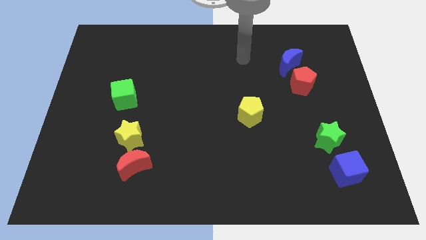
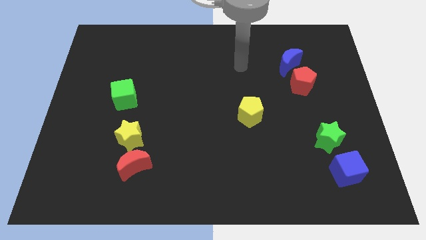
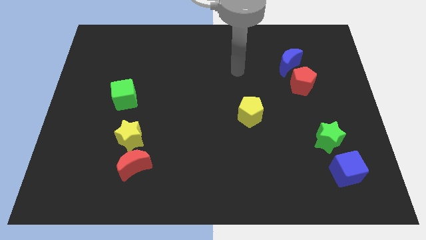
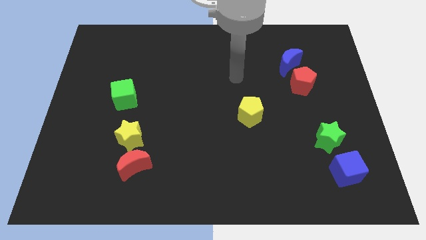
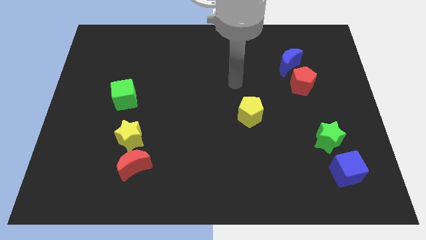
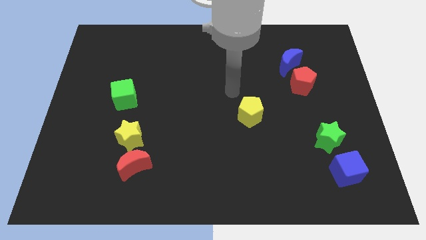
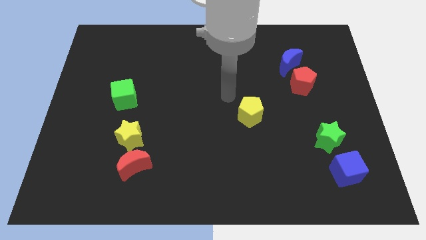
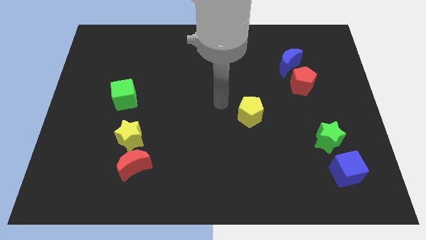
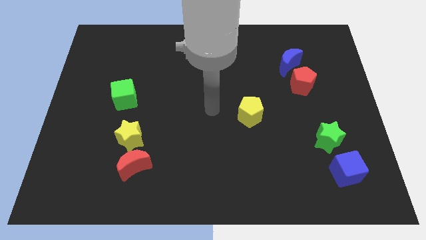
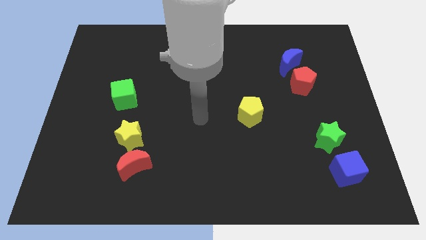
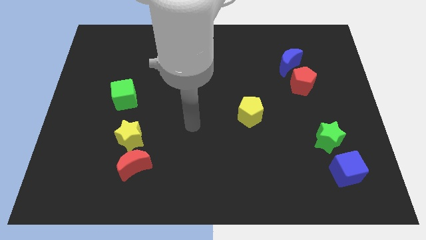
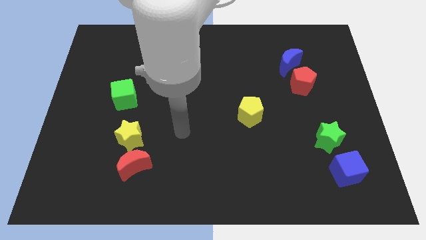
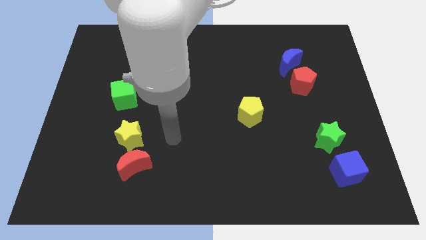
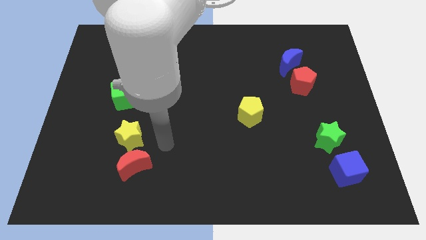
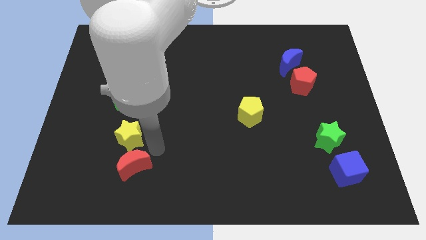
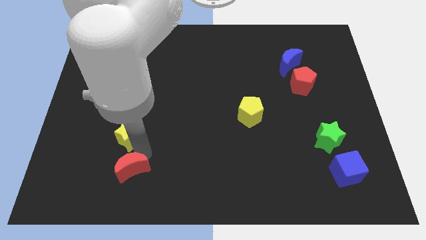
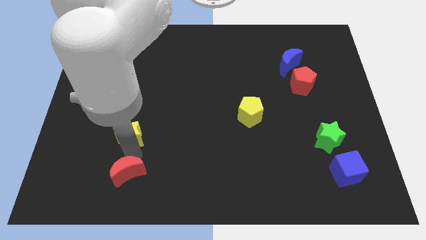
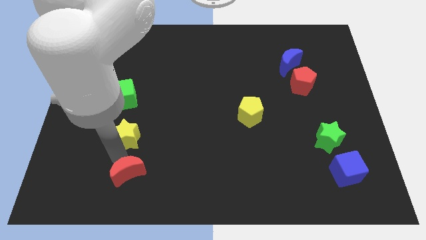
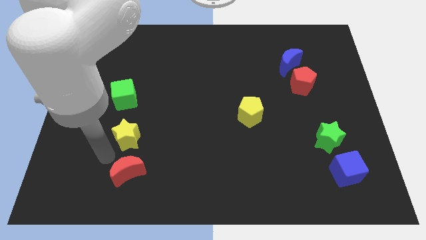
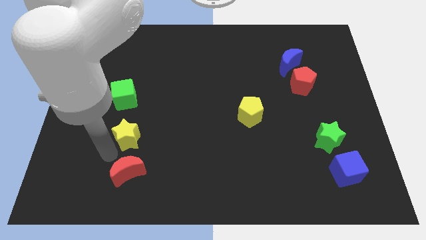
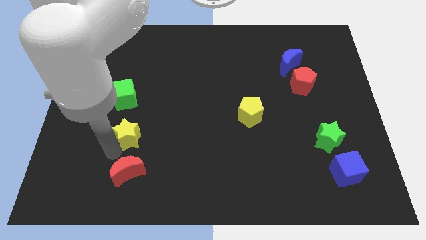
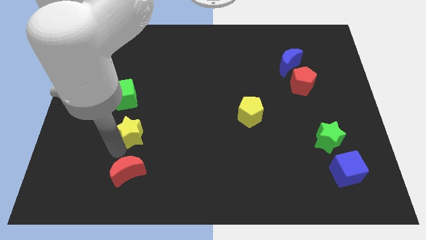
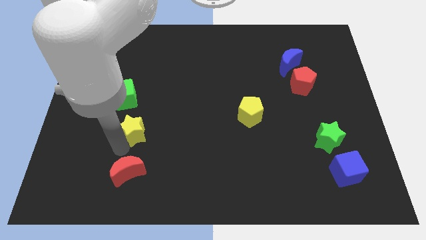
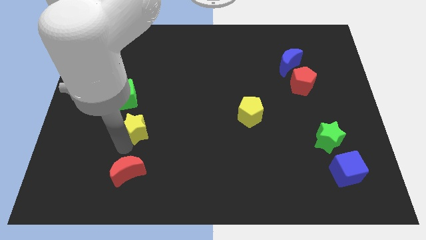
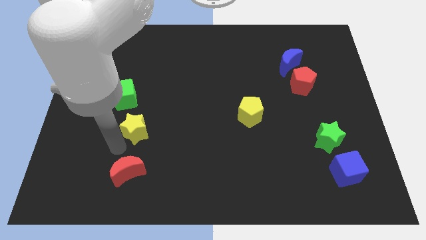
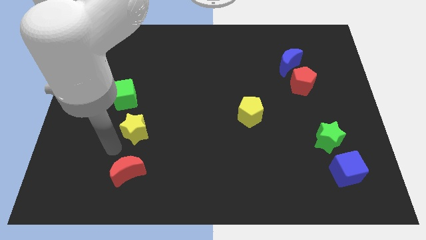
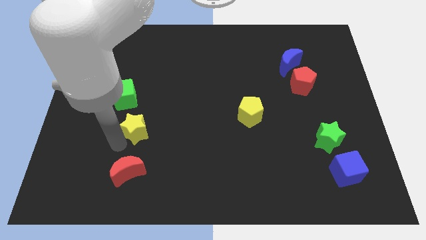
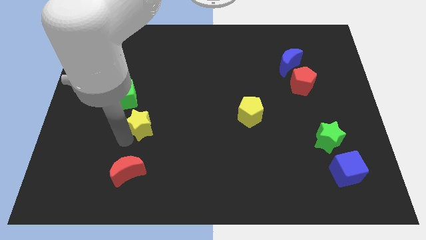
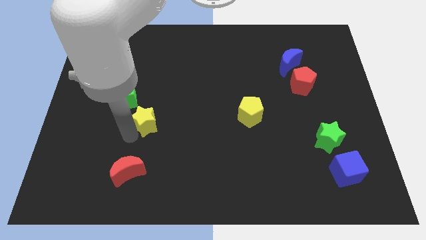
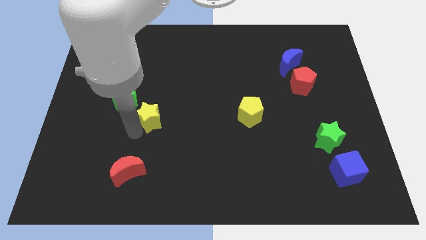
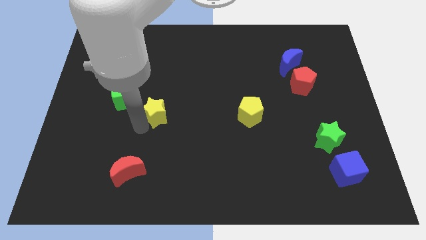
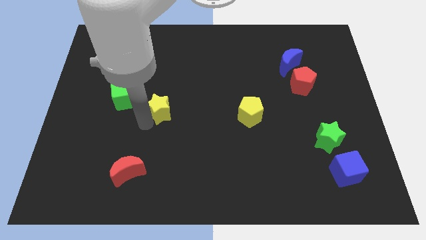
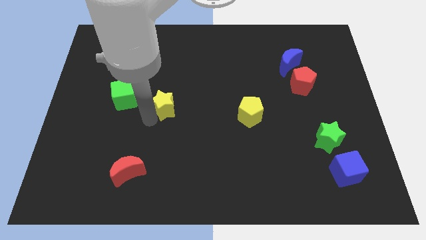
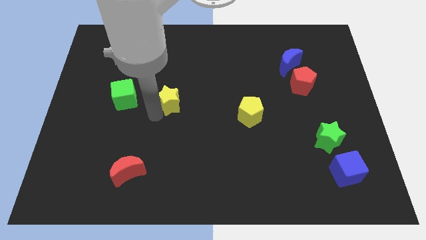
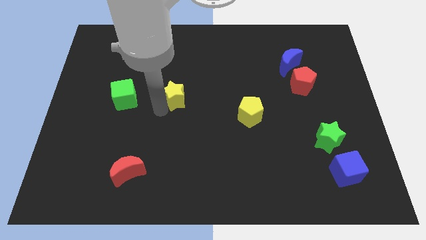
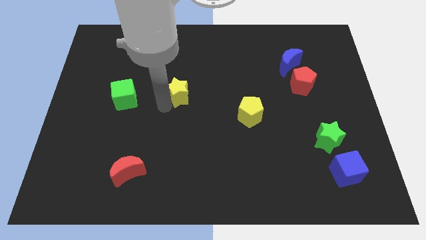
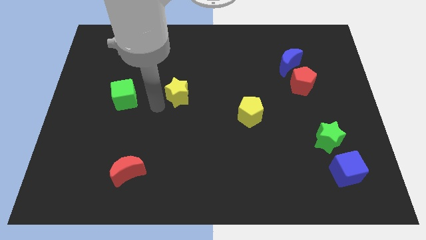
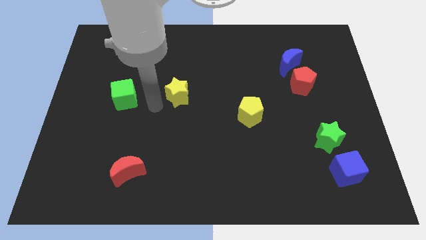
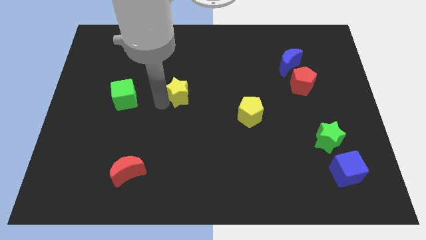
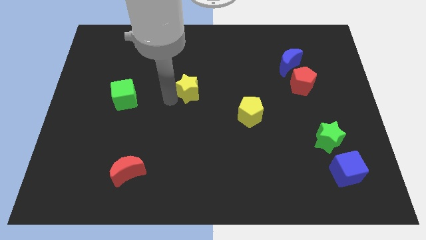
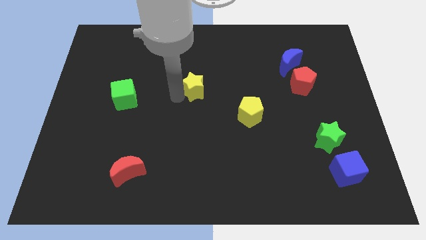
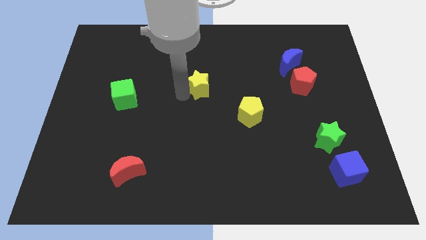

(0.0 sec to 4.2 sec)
slide the yellow star diagonally up and to the right

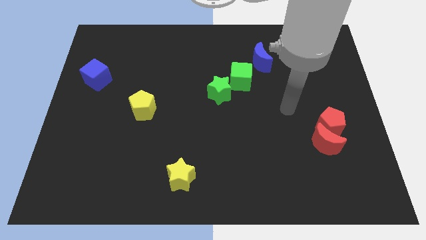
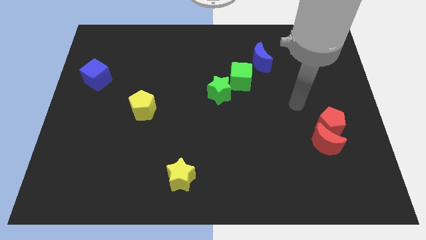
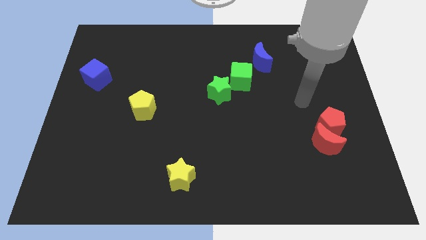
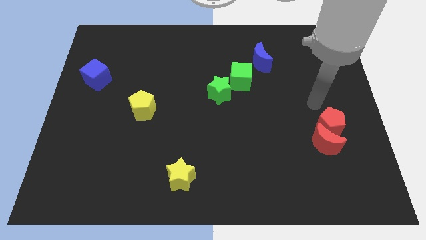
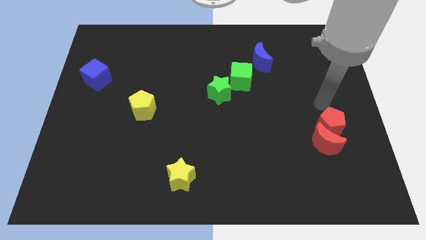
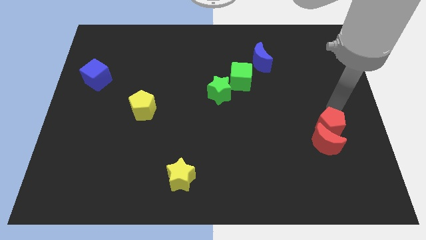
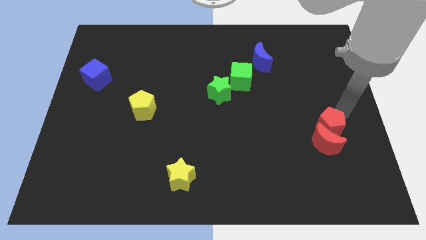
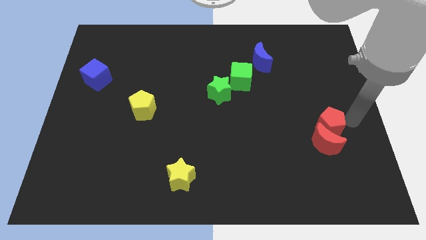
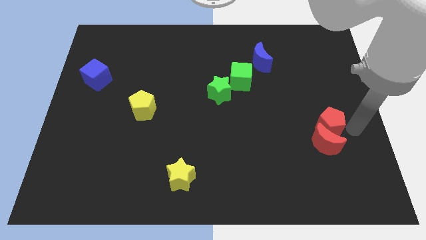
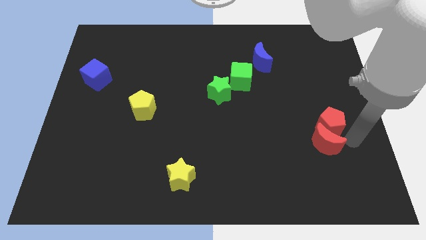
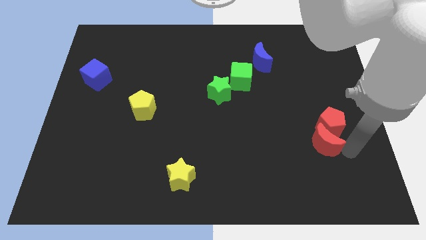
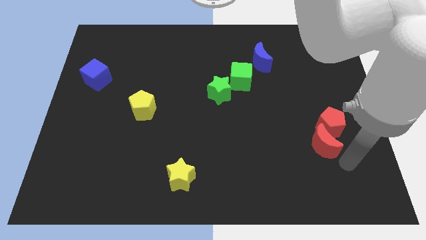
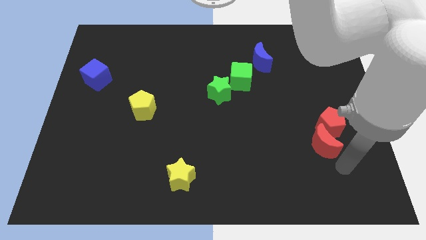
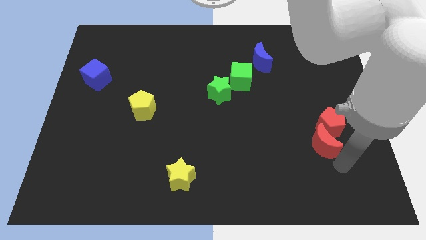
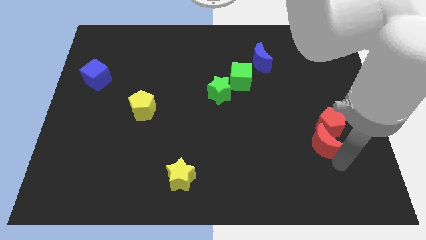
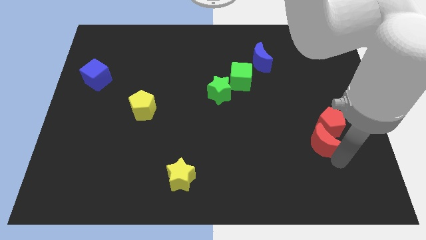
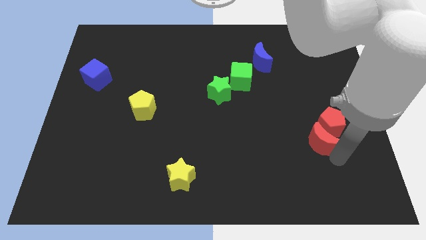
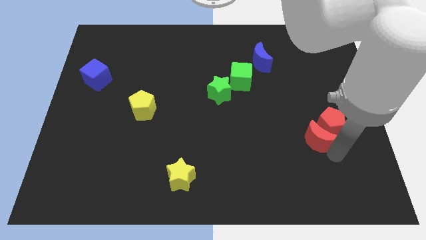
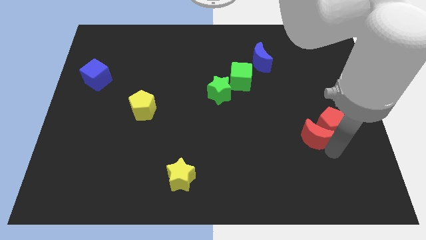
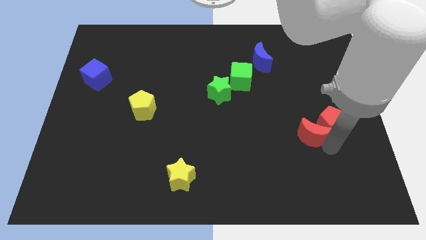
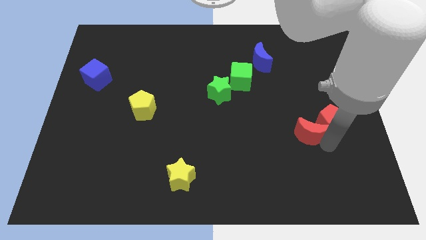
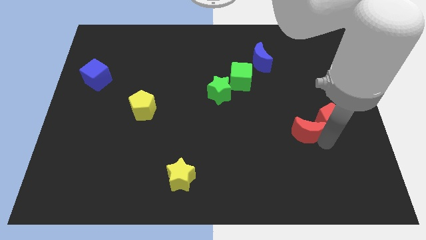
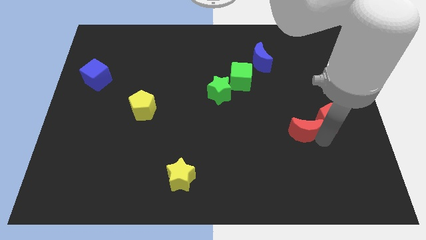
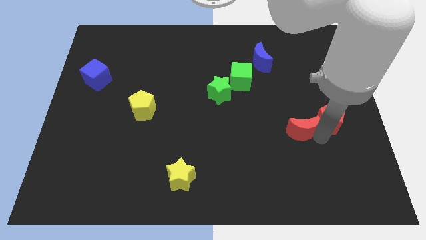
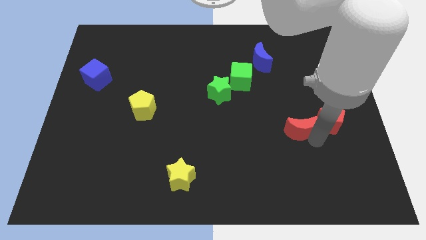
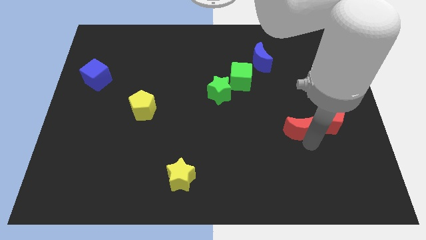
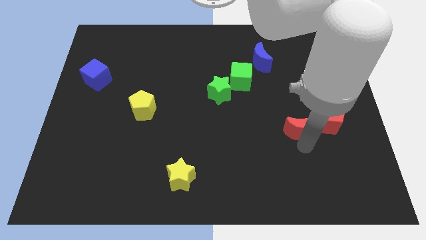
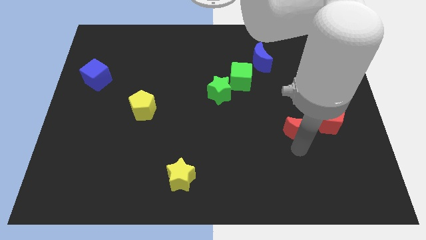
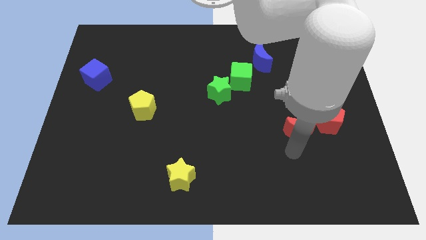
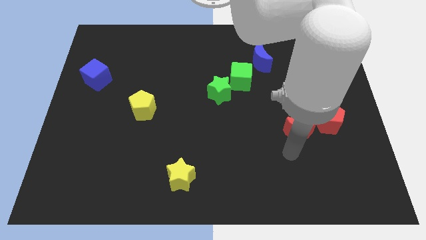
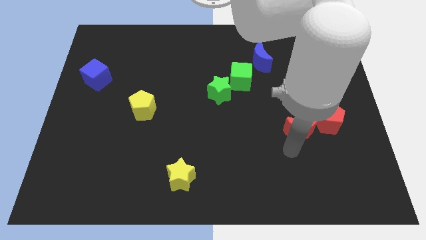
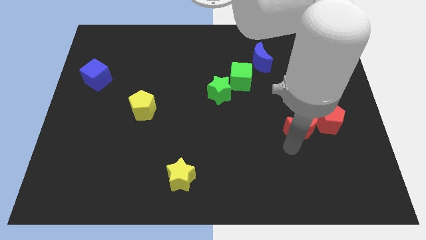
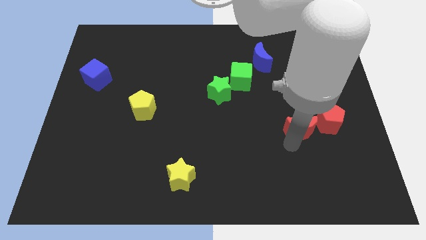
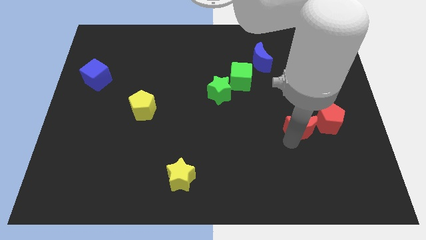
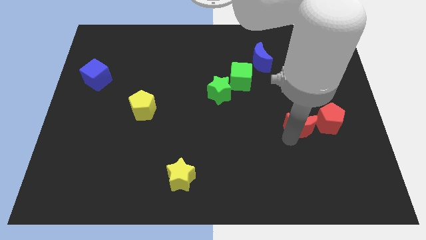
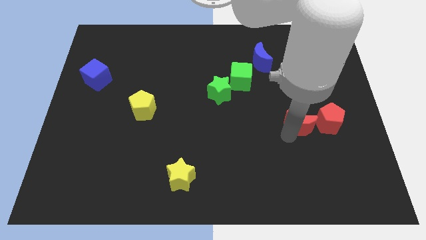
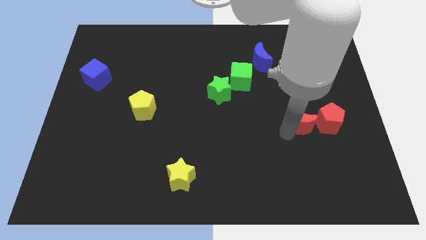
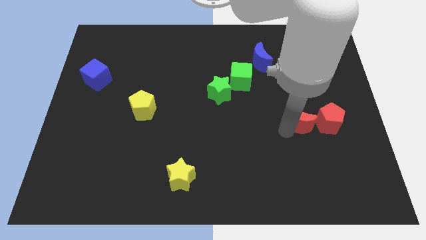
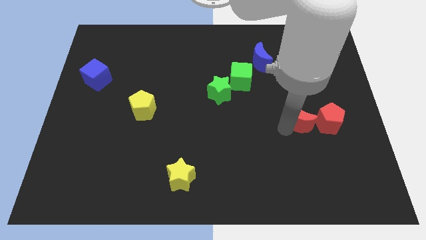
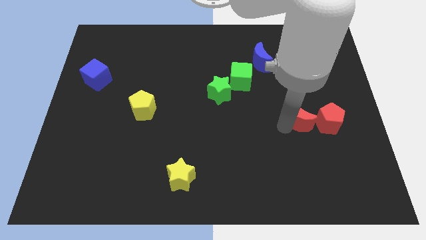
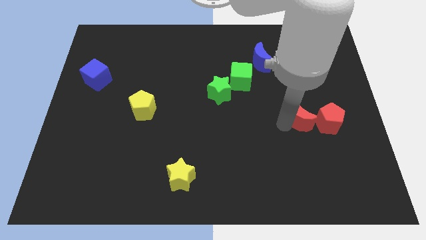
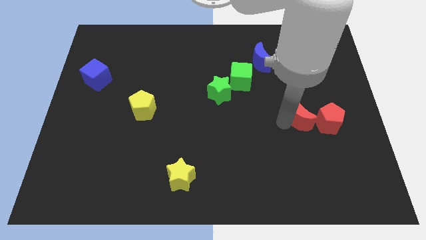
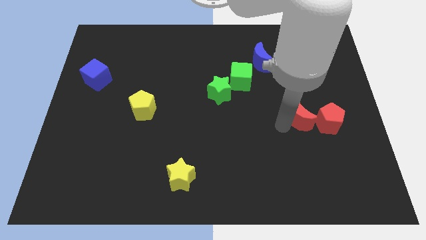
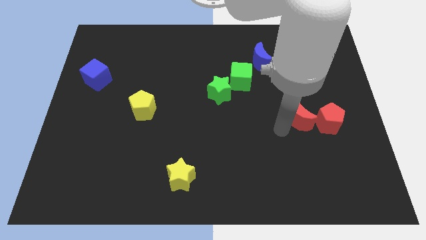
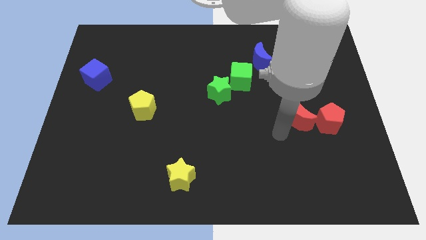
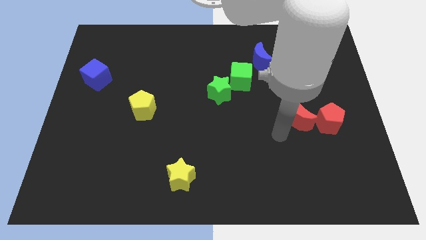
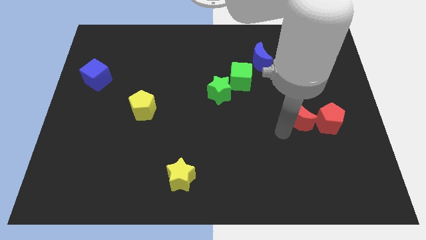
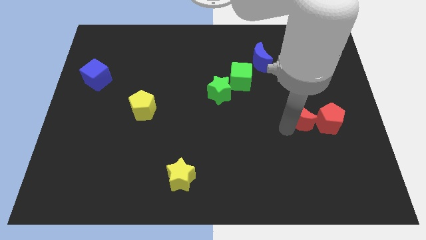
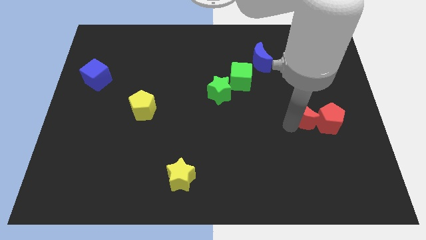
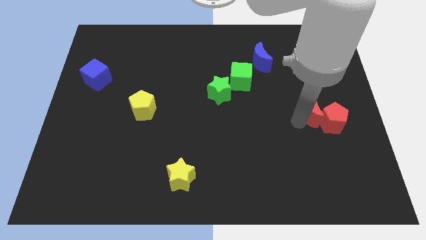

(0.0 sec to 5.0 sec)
slide the red moon slightly upwards
